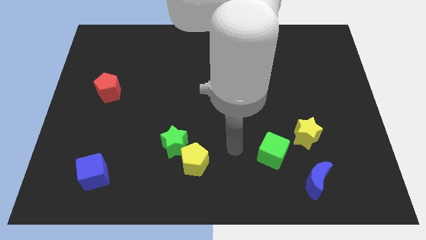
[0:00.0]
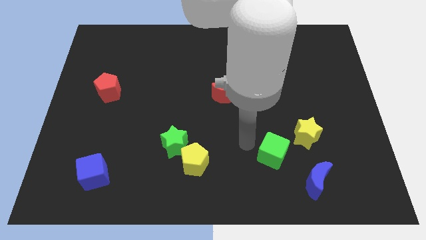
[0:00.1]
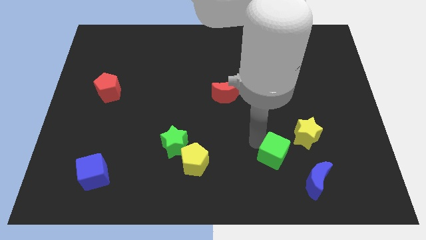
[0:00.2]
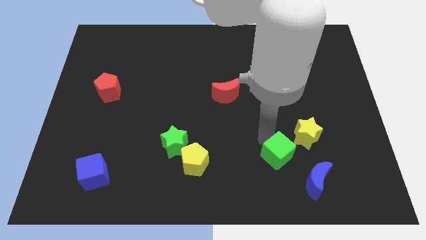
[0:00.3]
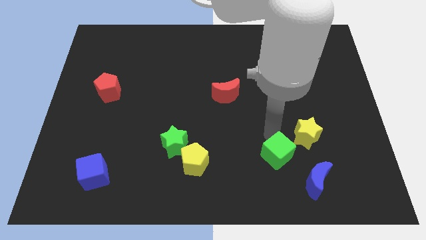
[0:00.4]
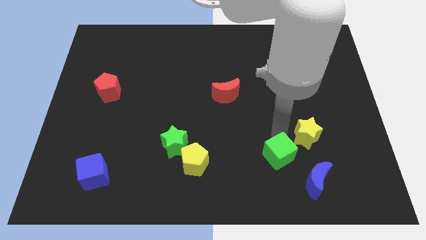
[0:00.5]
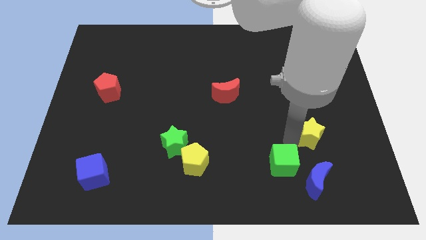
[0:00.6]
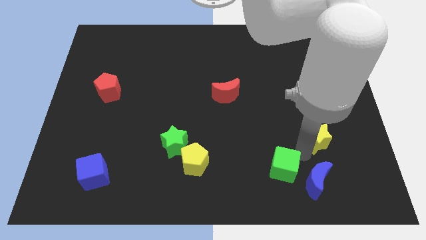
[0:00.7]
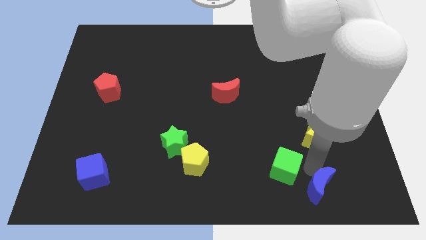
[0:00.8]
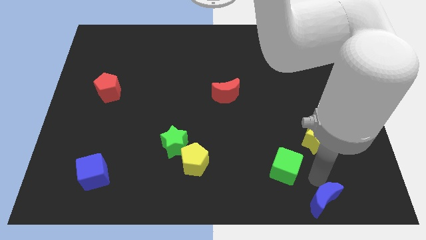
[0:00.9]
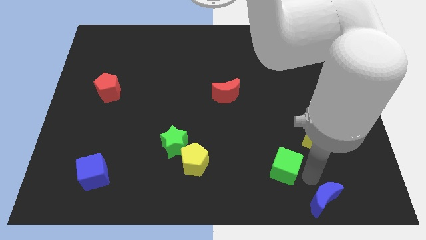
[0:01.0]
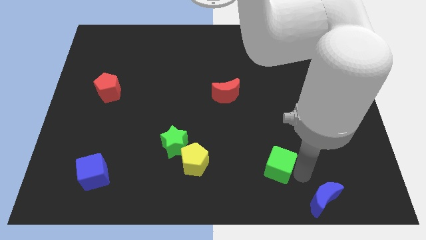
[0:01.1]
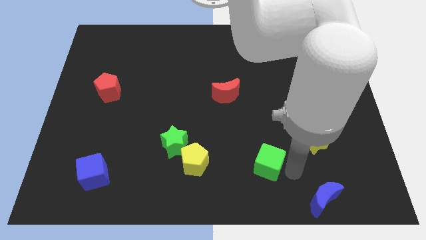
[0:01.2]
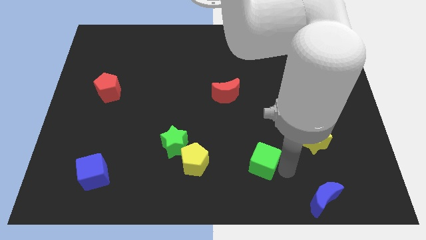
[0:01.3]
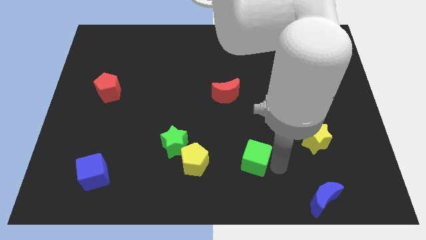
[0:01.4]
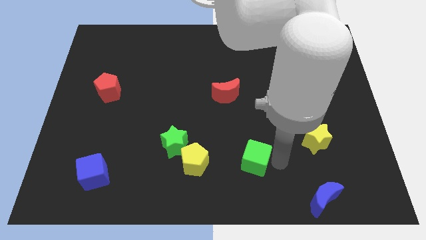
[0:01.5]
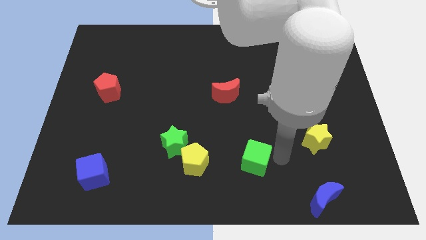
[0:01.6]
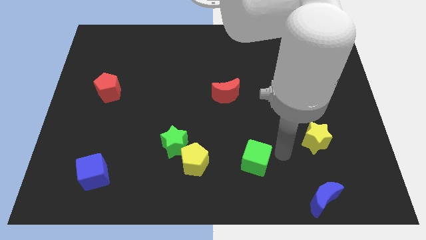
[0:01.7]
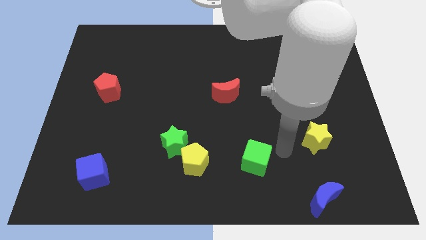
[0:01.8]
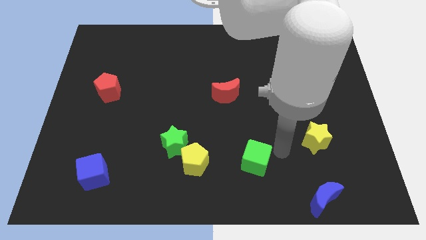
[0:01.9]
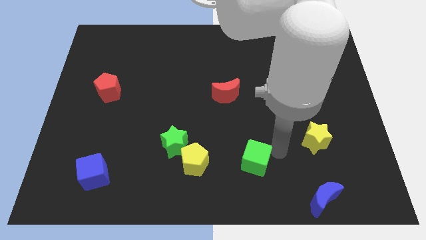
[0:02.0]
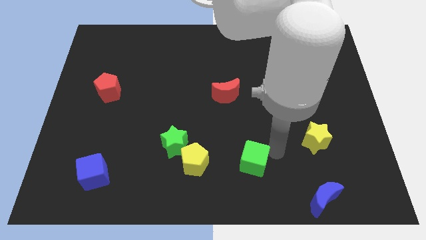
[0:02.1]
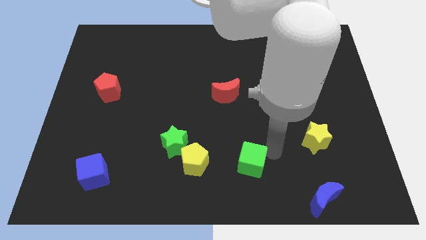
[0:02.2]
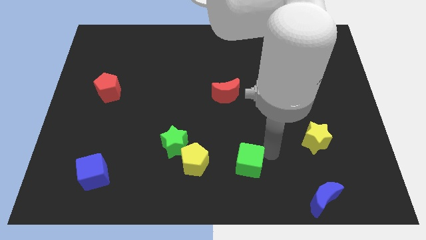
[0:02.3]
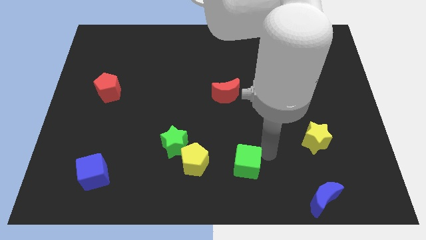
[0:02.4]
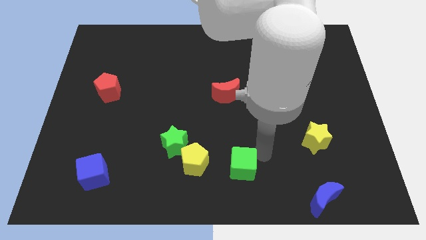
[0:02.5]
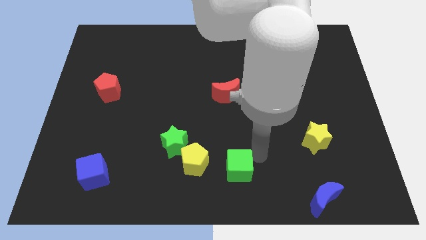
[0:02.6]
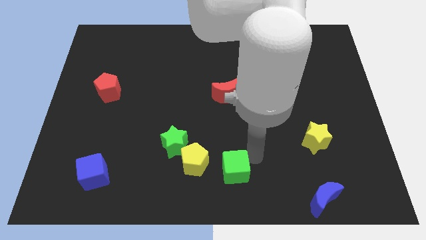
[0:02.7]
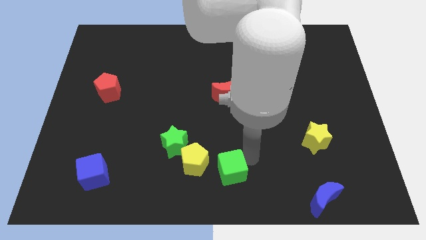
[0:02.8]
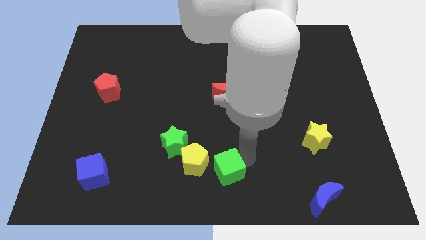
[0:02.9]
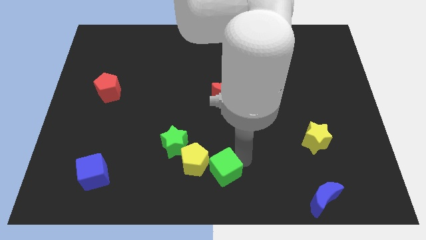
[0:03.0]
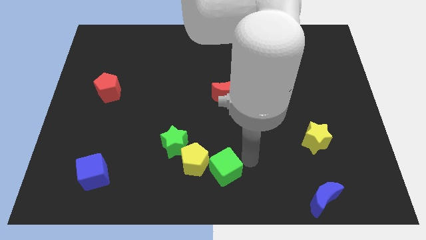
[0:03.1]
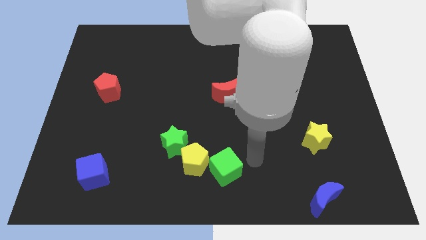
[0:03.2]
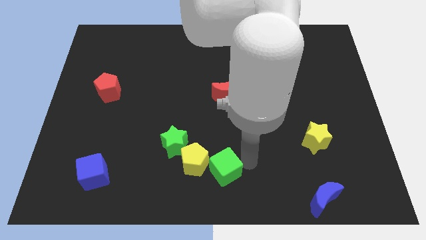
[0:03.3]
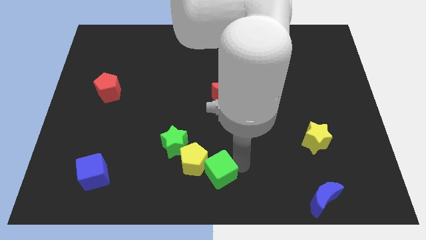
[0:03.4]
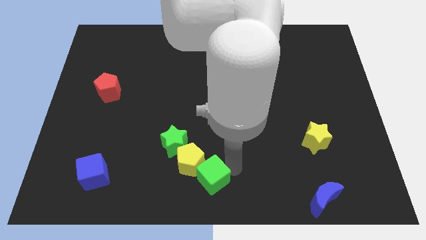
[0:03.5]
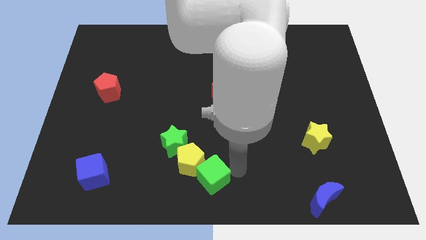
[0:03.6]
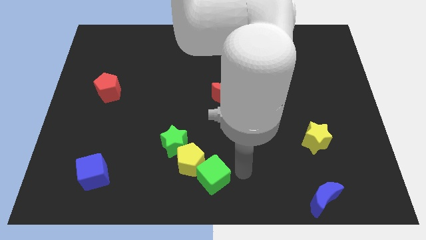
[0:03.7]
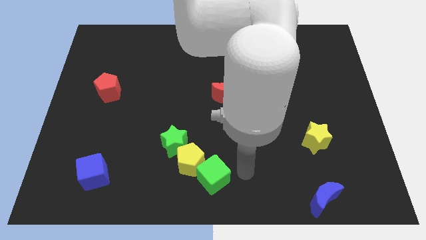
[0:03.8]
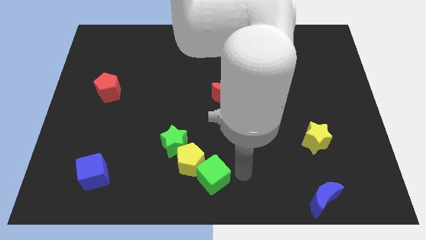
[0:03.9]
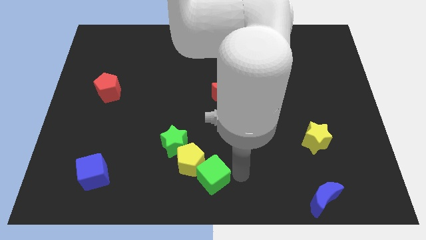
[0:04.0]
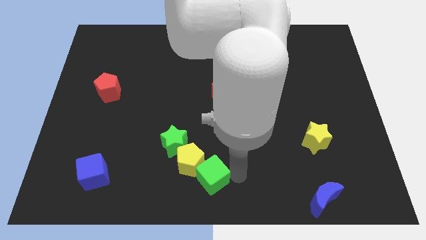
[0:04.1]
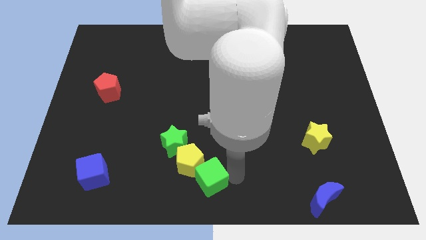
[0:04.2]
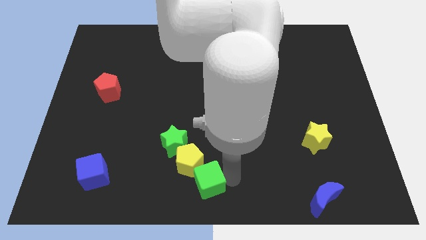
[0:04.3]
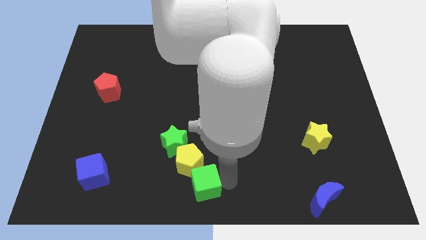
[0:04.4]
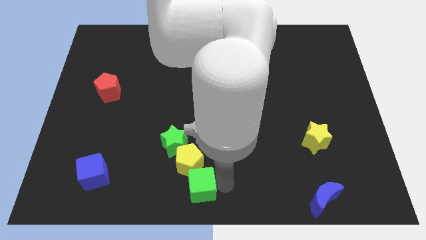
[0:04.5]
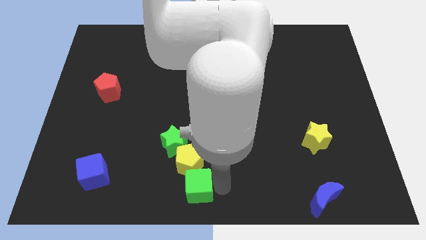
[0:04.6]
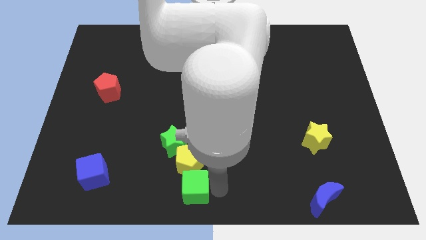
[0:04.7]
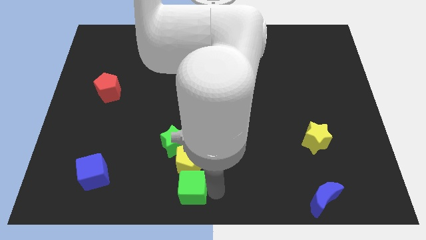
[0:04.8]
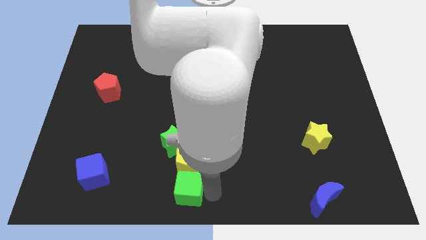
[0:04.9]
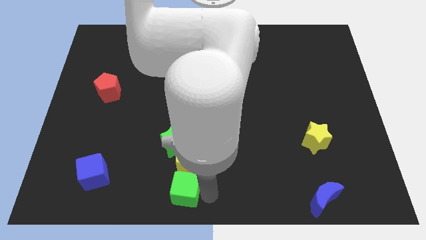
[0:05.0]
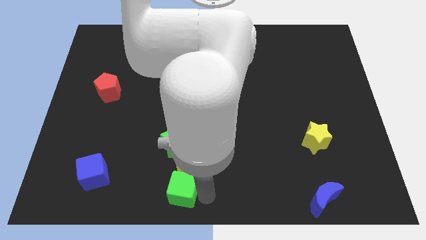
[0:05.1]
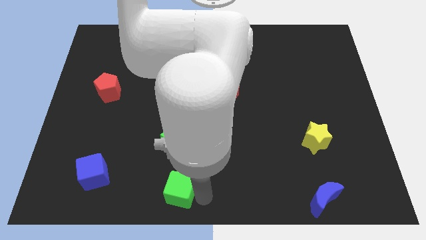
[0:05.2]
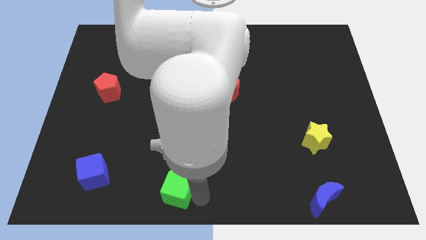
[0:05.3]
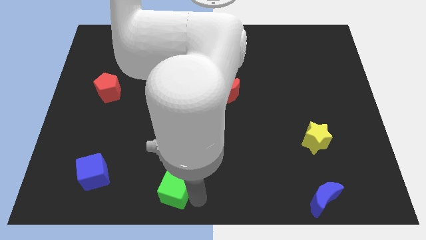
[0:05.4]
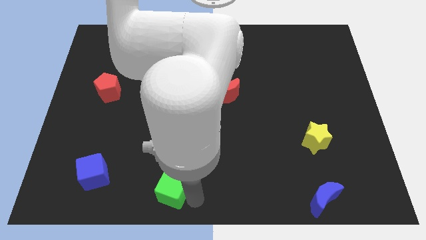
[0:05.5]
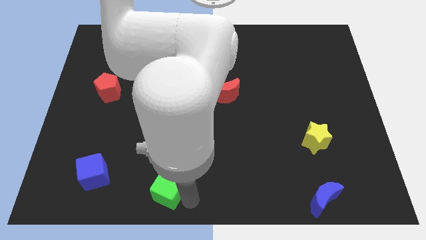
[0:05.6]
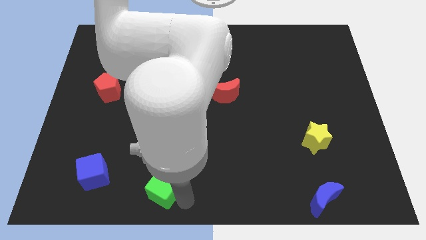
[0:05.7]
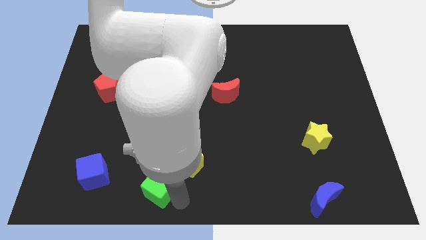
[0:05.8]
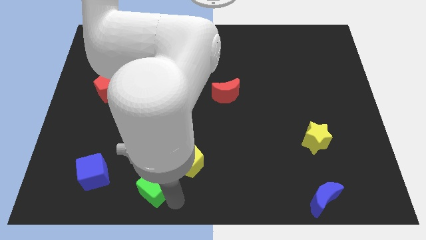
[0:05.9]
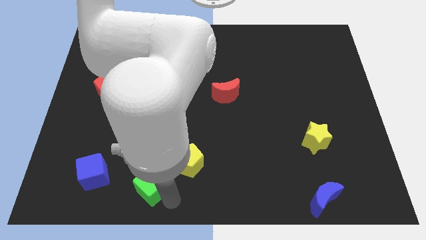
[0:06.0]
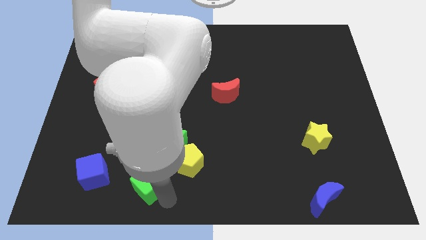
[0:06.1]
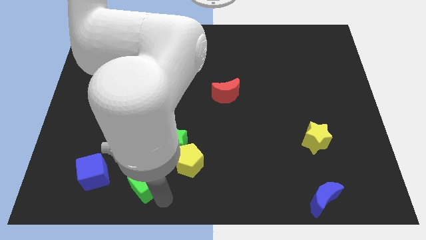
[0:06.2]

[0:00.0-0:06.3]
put the green cube left of the yellow pentagon

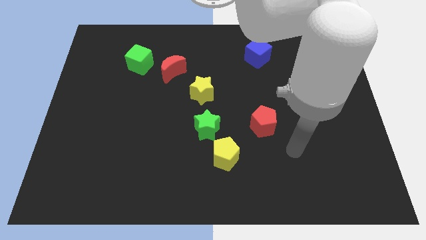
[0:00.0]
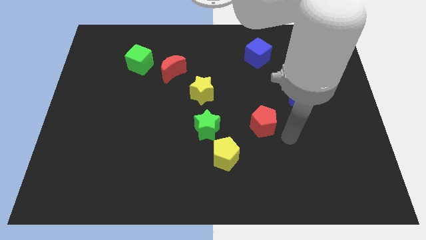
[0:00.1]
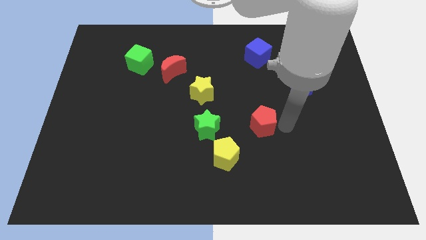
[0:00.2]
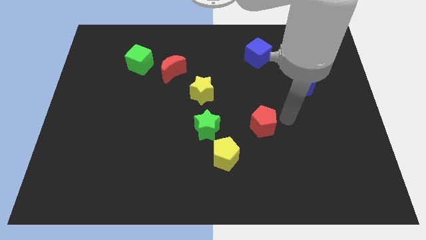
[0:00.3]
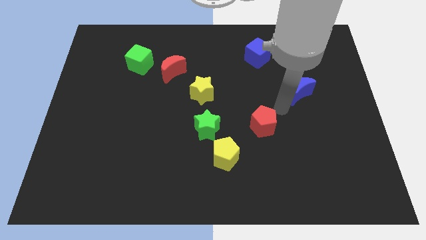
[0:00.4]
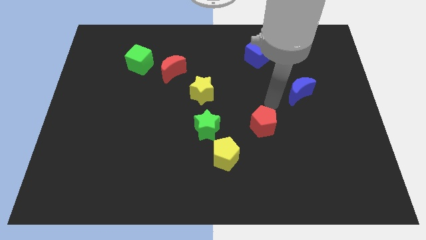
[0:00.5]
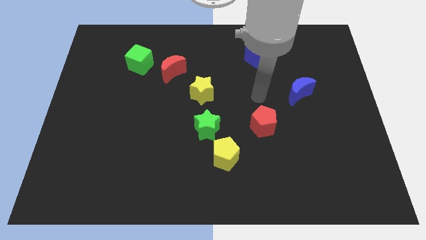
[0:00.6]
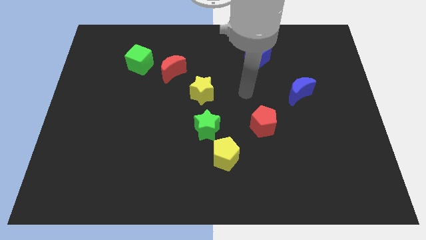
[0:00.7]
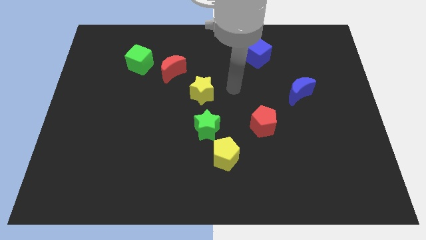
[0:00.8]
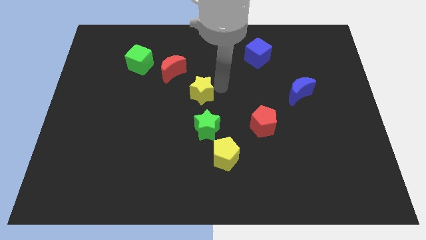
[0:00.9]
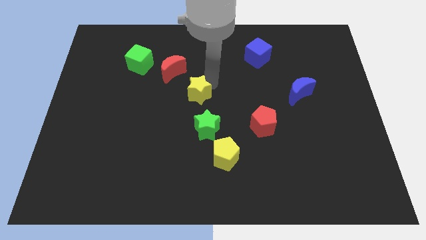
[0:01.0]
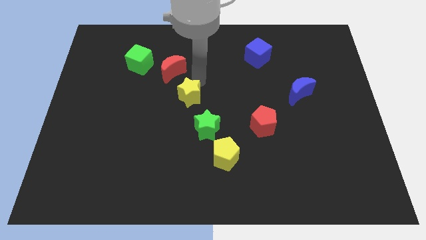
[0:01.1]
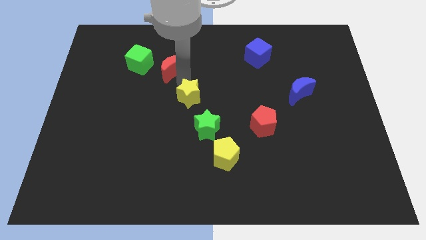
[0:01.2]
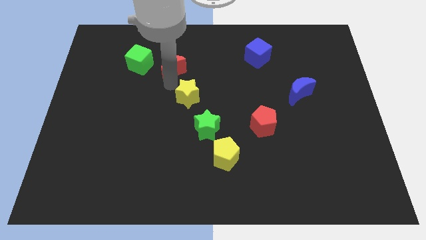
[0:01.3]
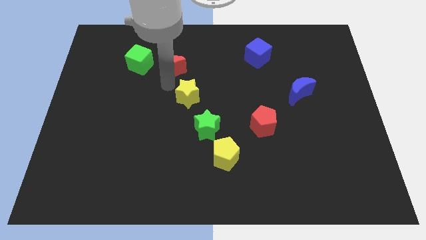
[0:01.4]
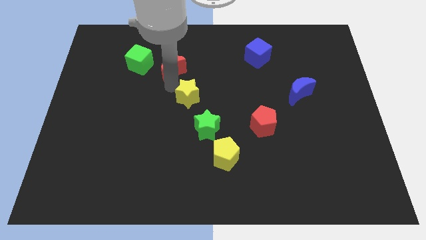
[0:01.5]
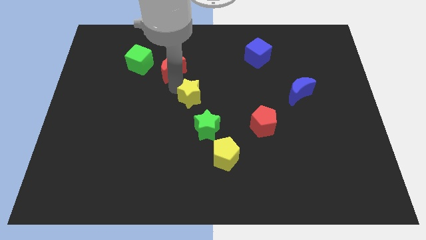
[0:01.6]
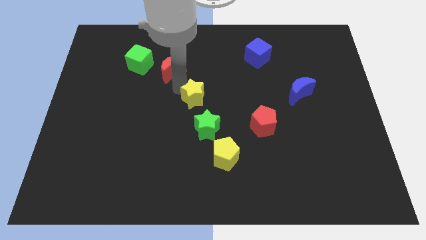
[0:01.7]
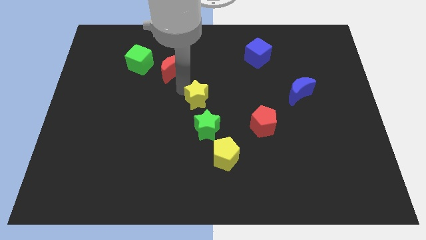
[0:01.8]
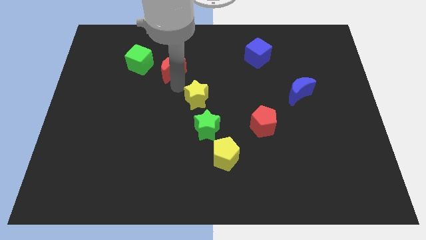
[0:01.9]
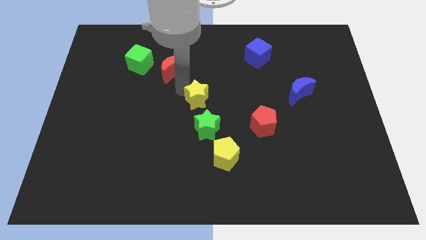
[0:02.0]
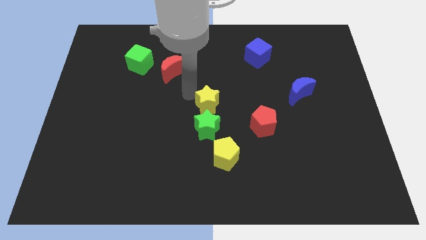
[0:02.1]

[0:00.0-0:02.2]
put the yellow star to the top side of the yellow pentagon
